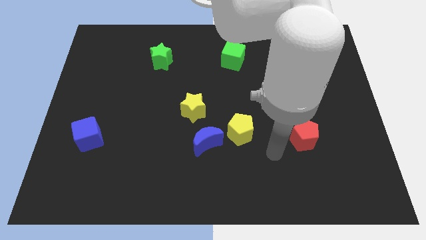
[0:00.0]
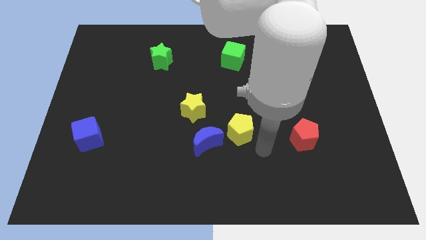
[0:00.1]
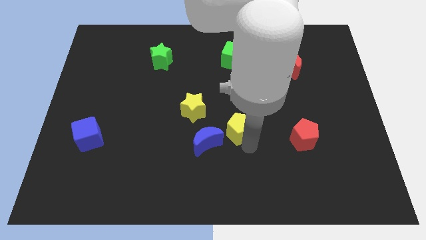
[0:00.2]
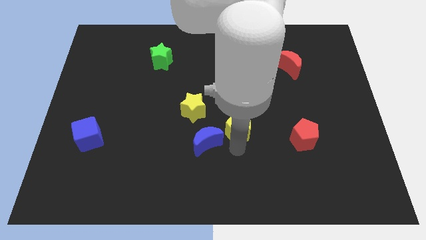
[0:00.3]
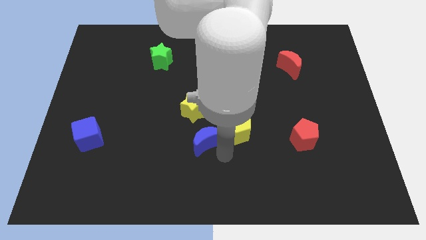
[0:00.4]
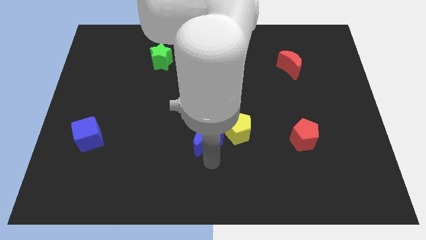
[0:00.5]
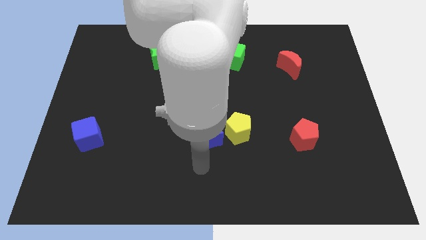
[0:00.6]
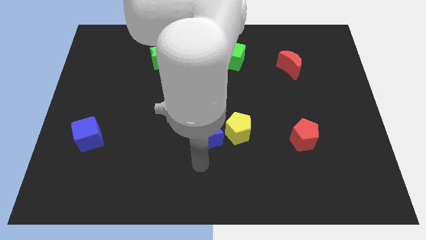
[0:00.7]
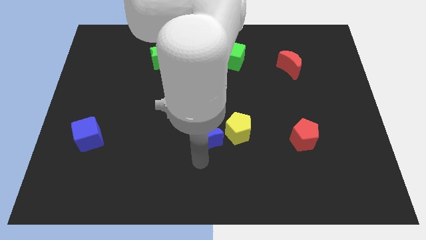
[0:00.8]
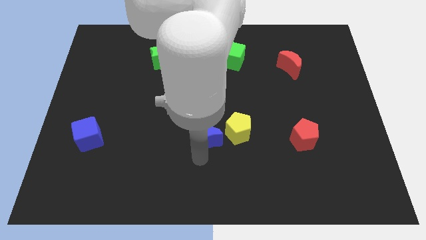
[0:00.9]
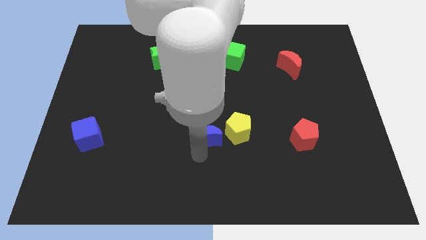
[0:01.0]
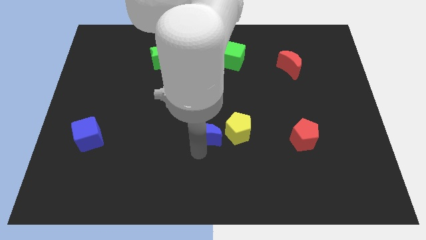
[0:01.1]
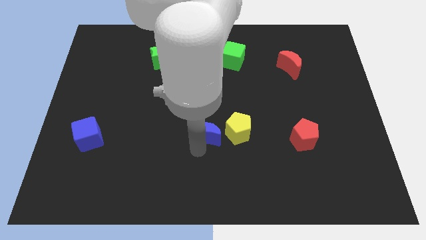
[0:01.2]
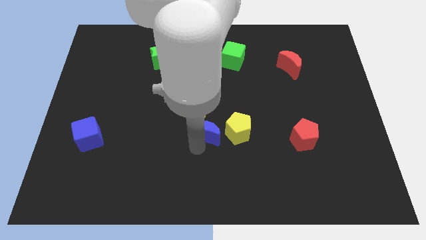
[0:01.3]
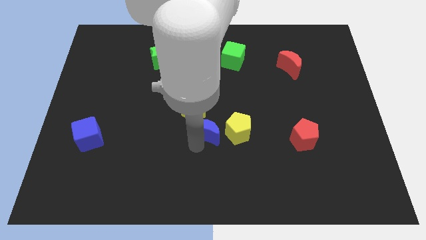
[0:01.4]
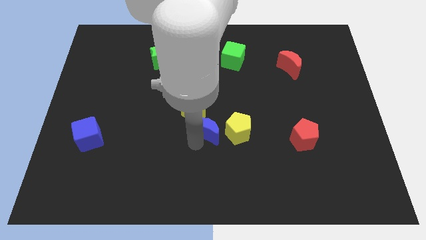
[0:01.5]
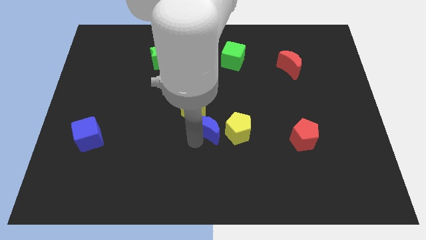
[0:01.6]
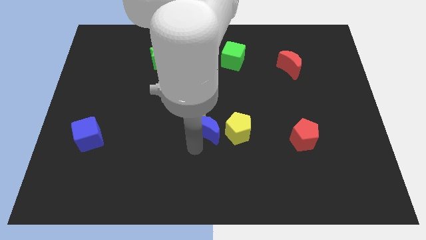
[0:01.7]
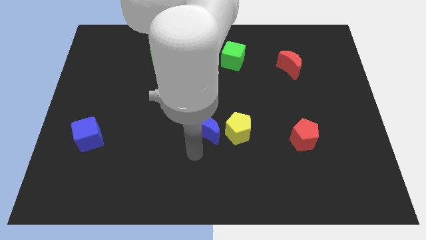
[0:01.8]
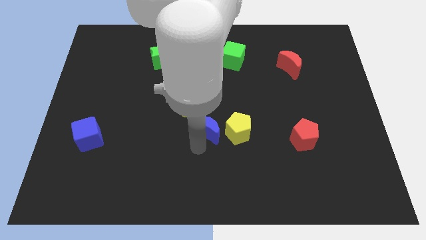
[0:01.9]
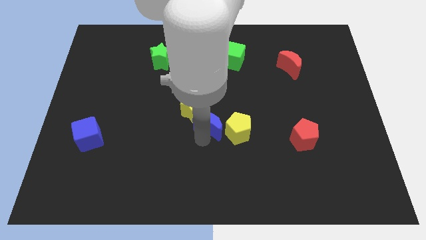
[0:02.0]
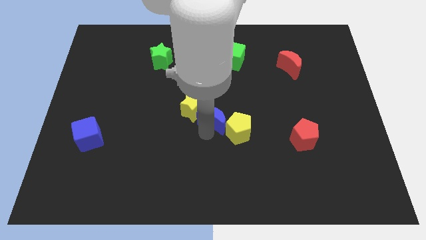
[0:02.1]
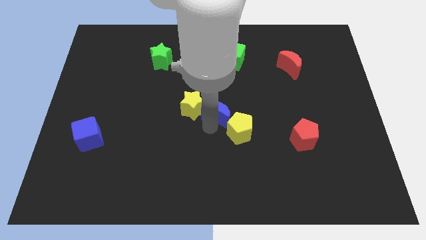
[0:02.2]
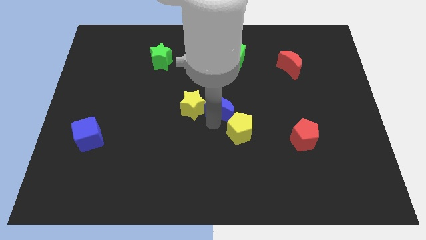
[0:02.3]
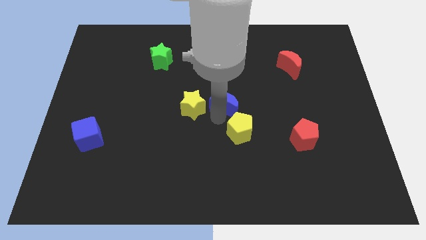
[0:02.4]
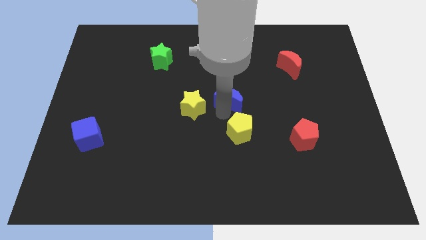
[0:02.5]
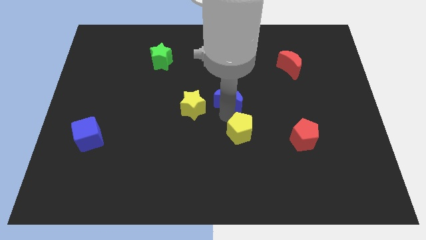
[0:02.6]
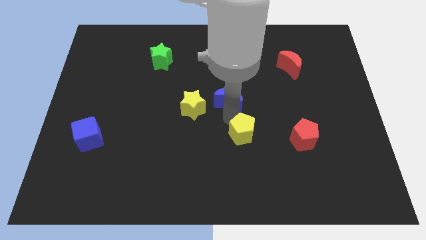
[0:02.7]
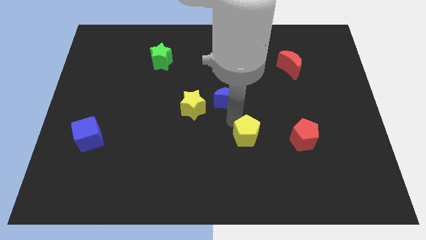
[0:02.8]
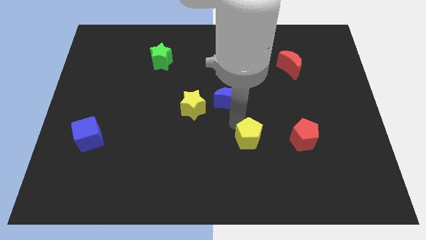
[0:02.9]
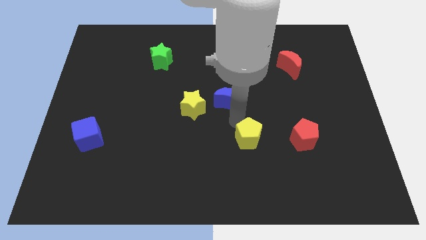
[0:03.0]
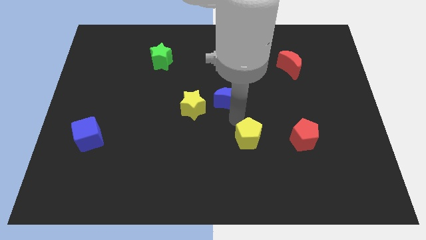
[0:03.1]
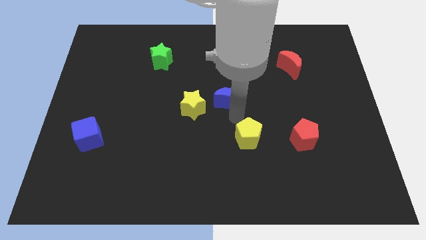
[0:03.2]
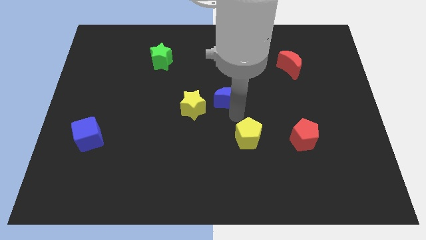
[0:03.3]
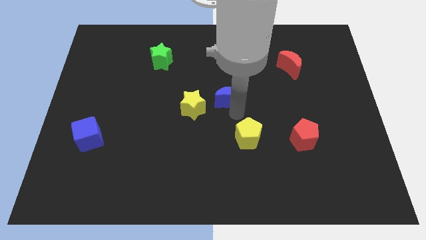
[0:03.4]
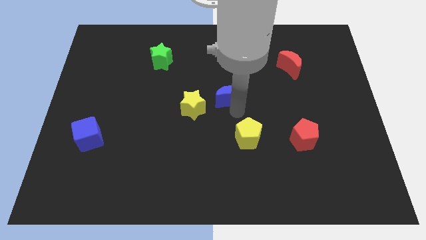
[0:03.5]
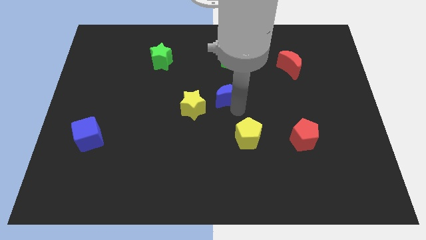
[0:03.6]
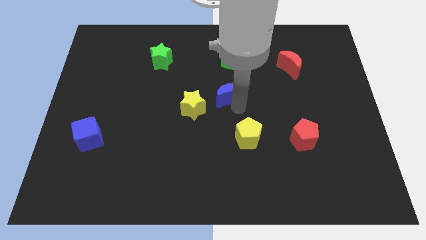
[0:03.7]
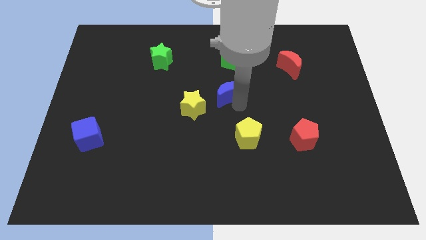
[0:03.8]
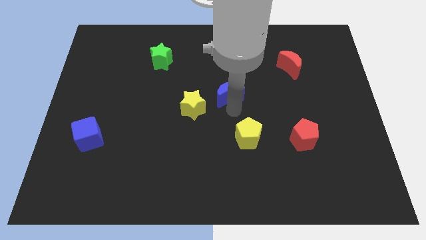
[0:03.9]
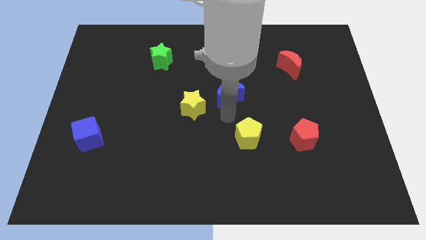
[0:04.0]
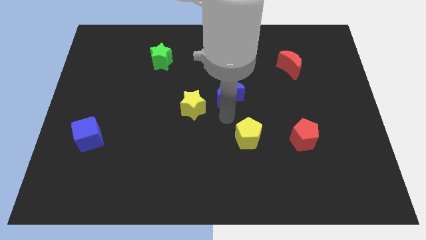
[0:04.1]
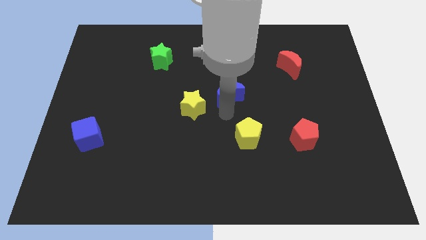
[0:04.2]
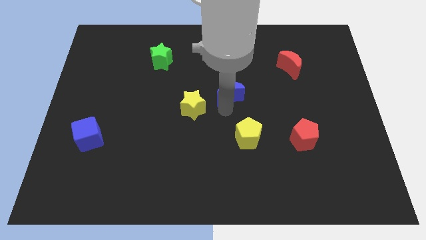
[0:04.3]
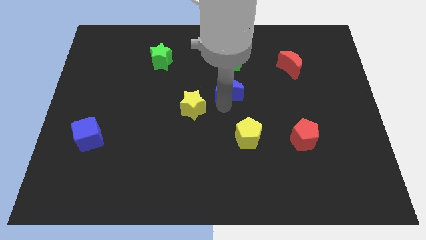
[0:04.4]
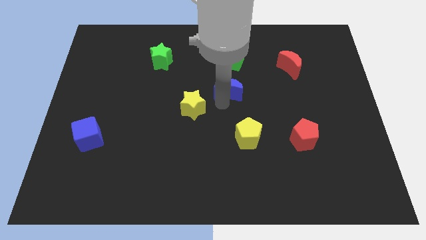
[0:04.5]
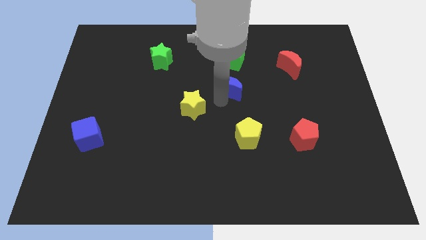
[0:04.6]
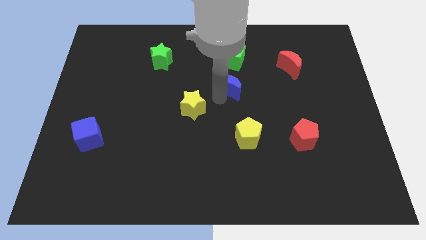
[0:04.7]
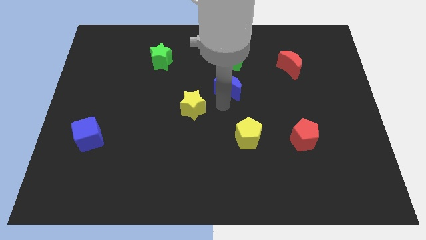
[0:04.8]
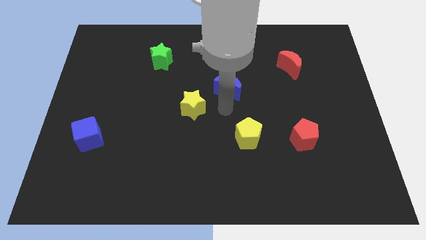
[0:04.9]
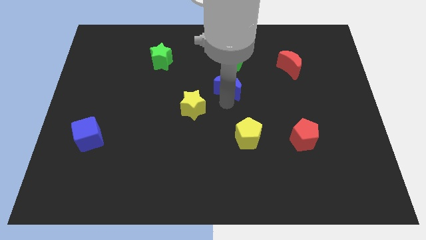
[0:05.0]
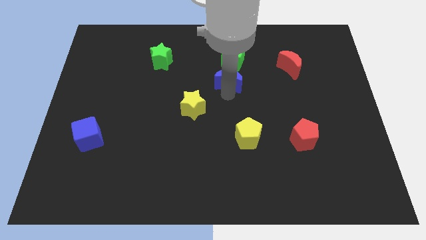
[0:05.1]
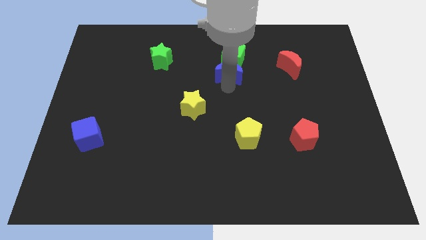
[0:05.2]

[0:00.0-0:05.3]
put the blue moon close to the green cube

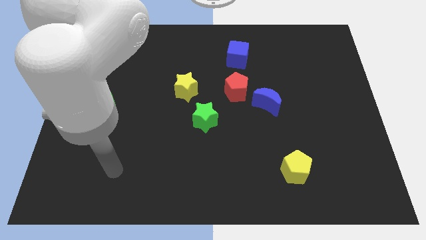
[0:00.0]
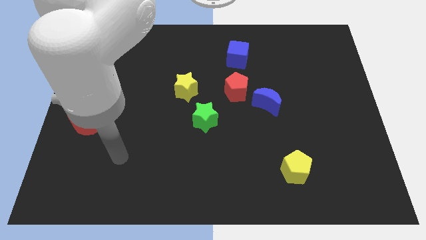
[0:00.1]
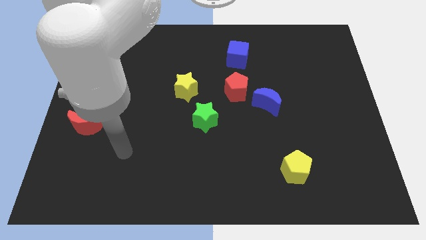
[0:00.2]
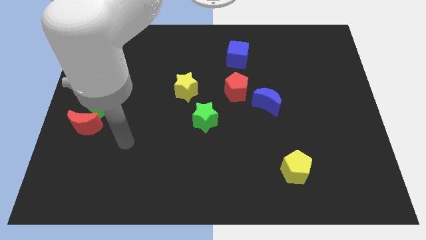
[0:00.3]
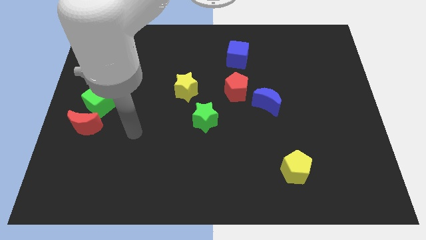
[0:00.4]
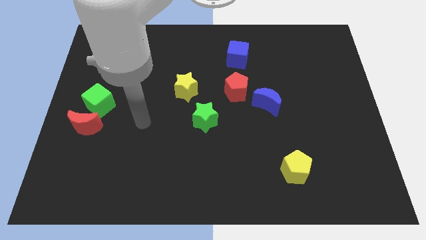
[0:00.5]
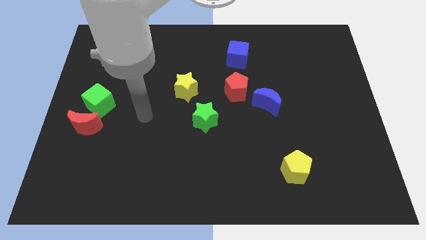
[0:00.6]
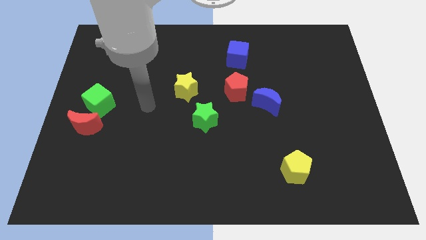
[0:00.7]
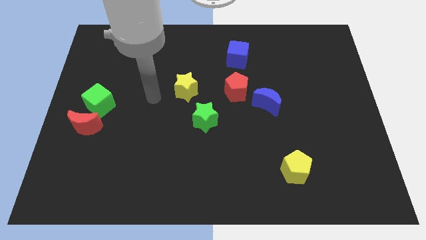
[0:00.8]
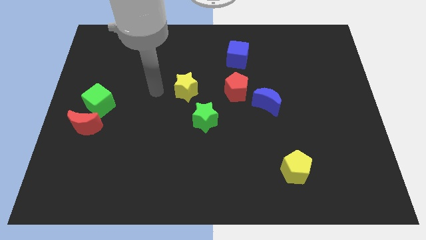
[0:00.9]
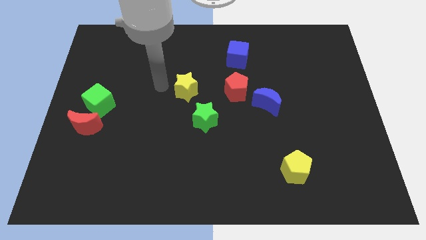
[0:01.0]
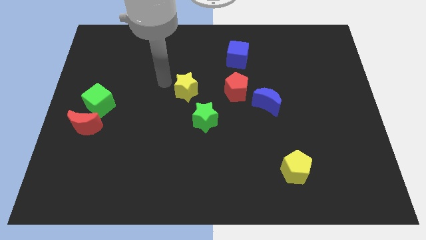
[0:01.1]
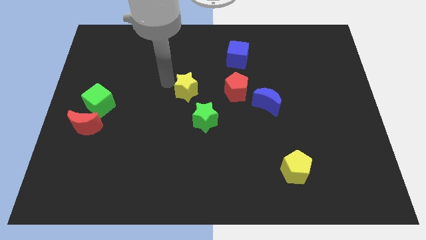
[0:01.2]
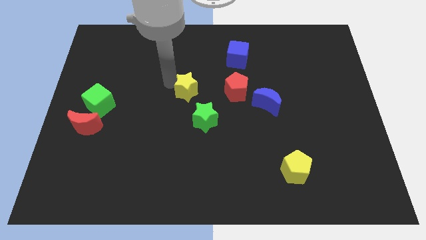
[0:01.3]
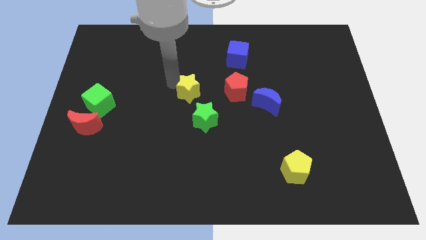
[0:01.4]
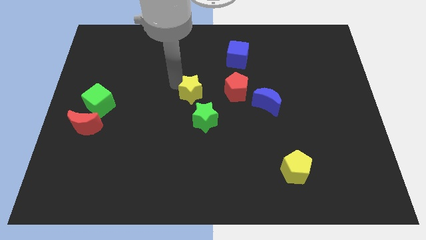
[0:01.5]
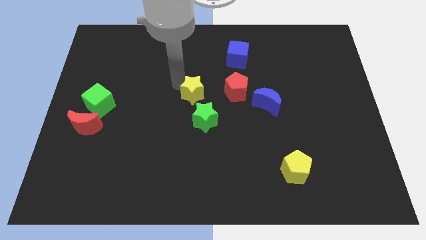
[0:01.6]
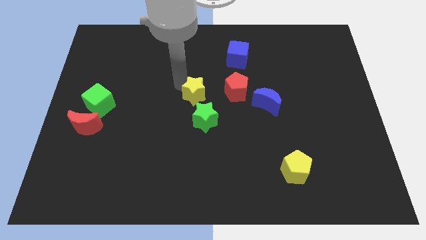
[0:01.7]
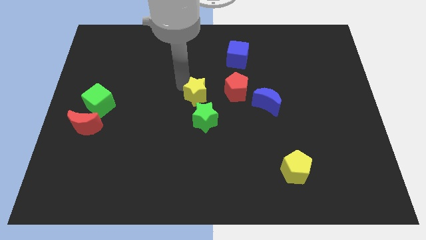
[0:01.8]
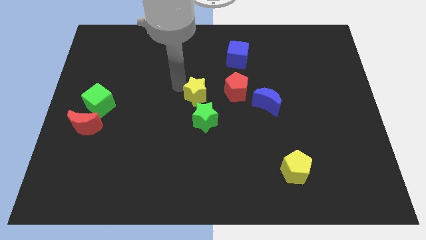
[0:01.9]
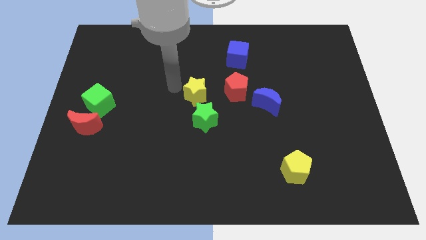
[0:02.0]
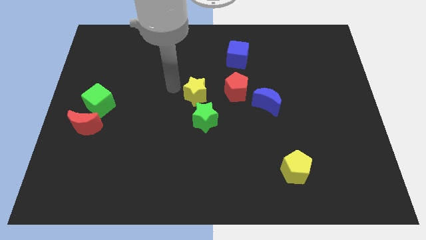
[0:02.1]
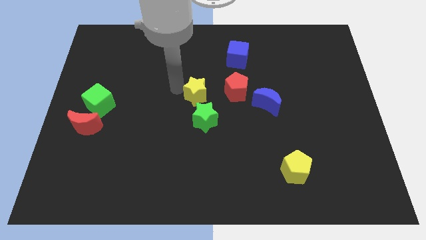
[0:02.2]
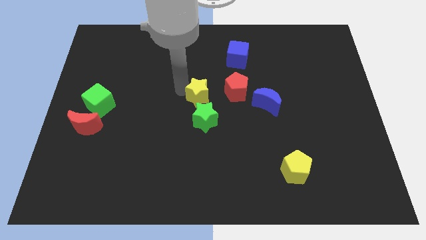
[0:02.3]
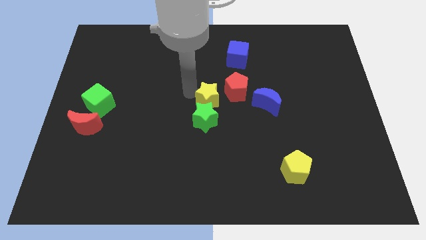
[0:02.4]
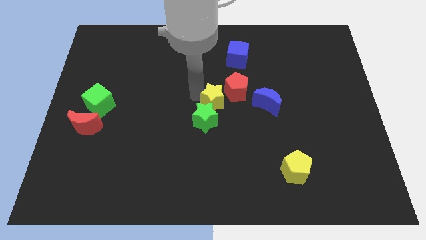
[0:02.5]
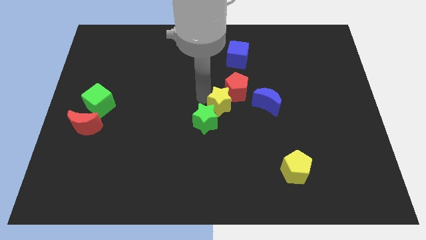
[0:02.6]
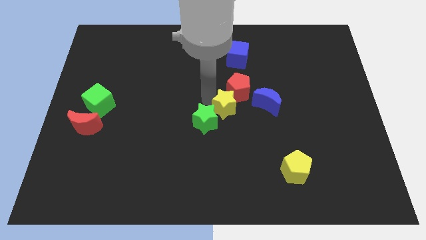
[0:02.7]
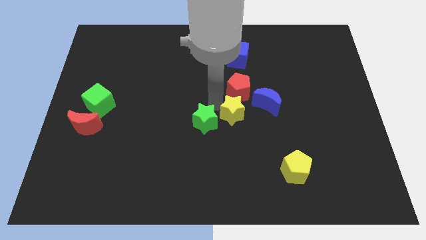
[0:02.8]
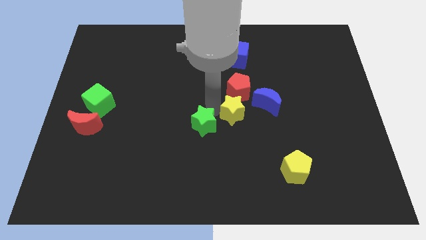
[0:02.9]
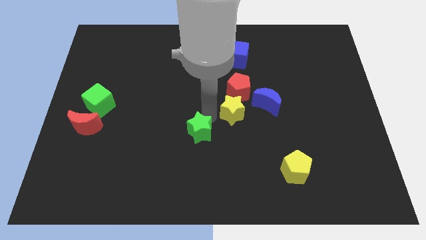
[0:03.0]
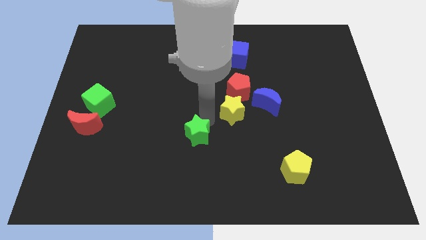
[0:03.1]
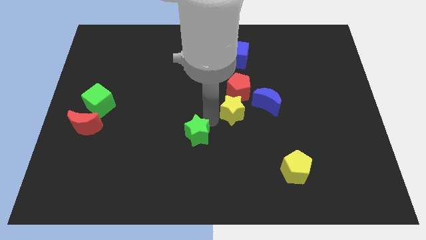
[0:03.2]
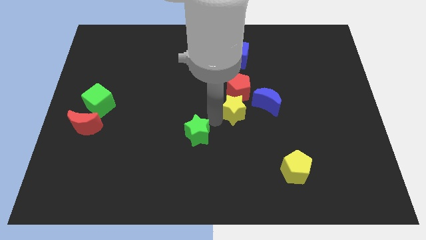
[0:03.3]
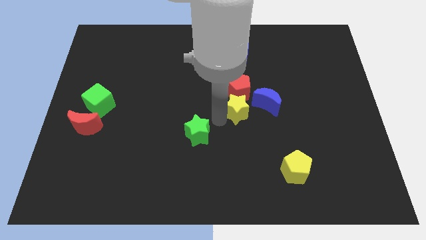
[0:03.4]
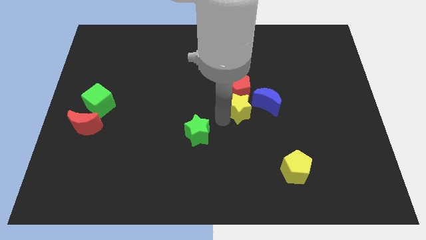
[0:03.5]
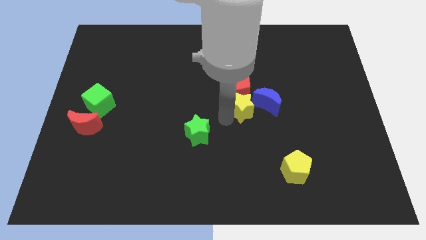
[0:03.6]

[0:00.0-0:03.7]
slide the yellow star next to the blue moon

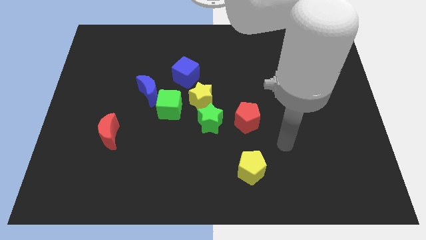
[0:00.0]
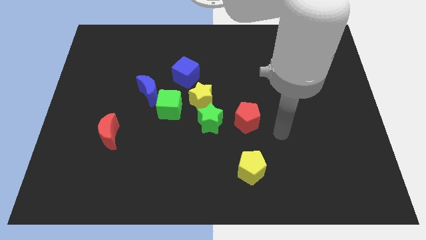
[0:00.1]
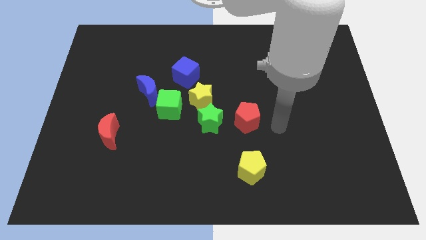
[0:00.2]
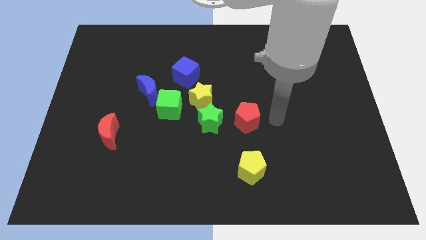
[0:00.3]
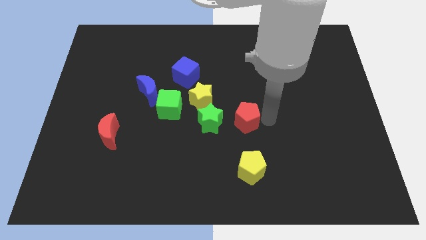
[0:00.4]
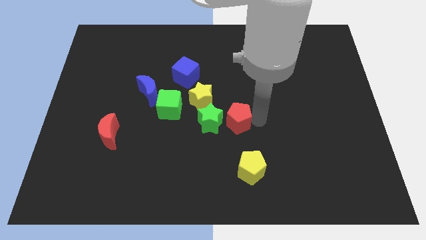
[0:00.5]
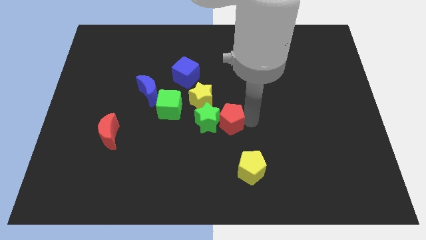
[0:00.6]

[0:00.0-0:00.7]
move the red pentagon next to the green star
